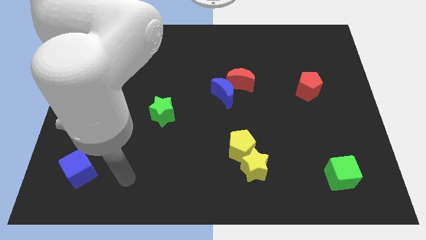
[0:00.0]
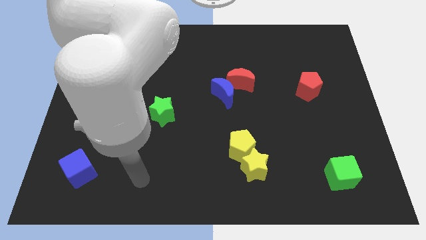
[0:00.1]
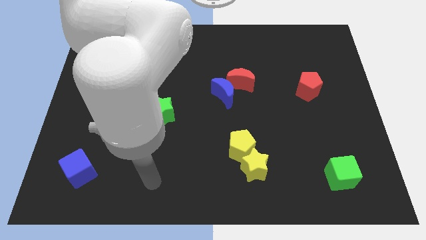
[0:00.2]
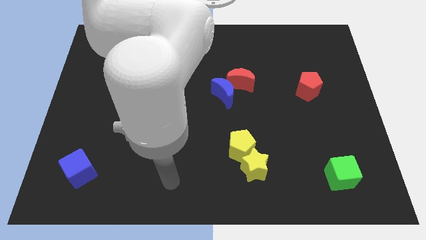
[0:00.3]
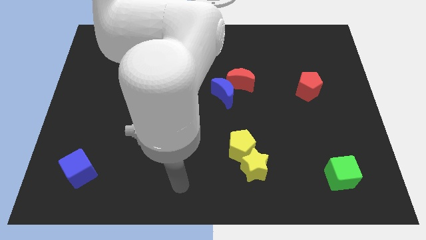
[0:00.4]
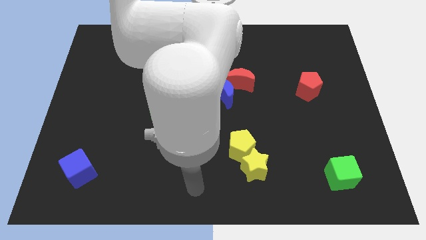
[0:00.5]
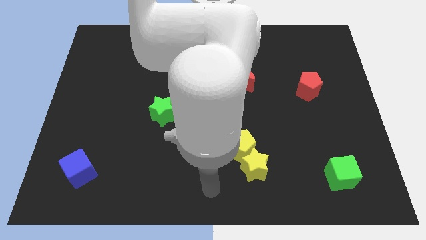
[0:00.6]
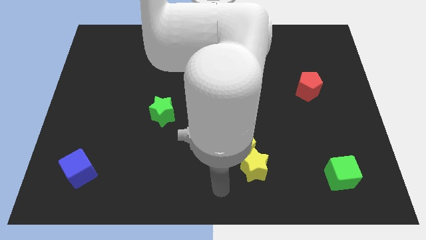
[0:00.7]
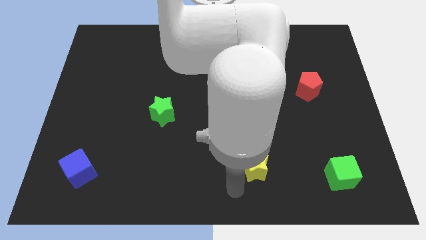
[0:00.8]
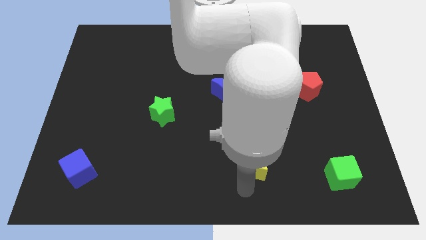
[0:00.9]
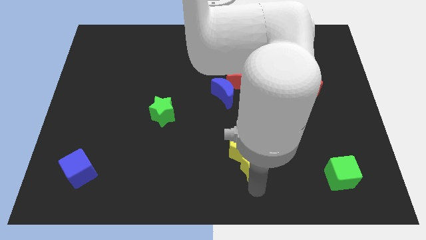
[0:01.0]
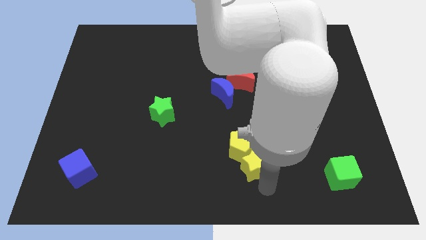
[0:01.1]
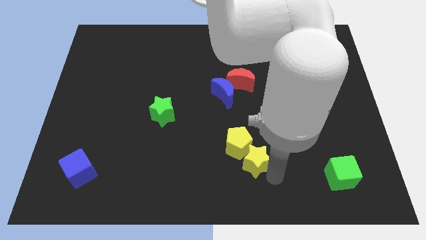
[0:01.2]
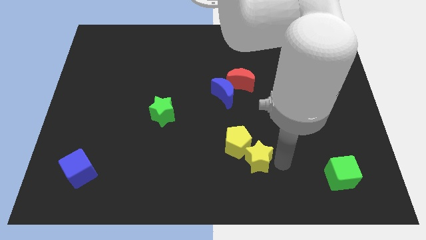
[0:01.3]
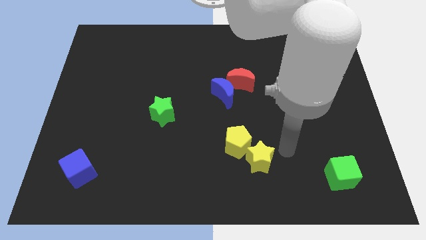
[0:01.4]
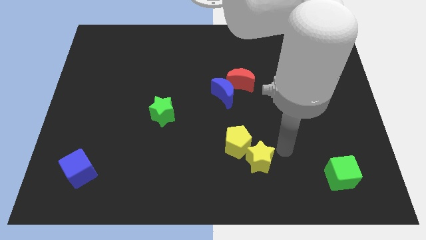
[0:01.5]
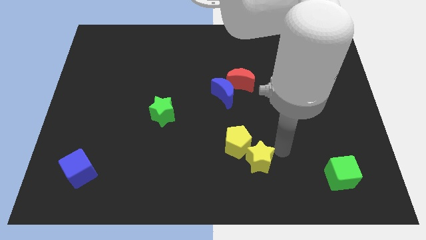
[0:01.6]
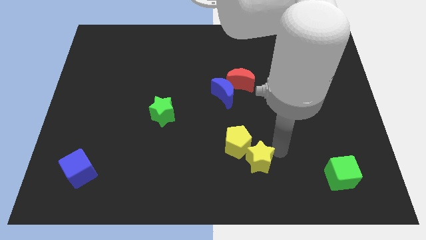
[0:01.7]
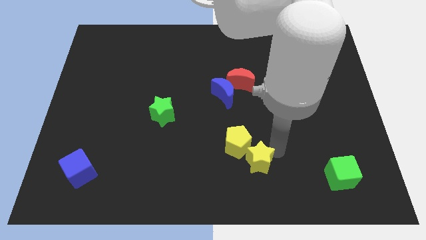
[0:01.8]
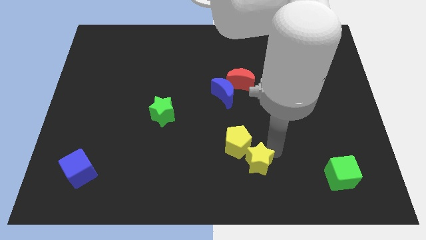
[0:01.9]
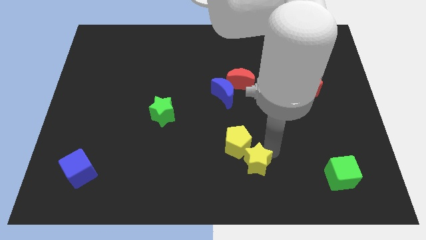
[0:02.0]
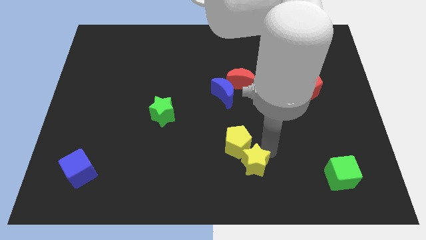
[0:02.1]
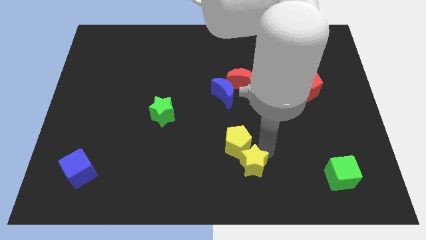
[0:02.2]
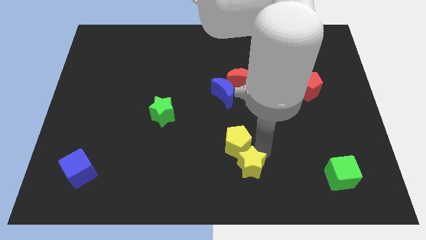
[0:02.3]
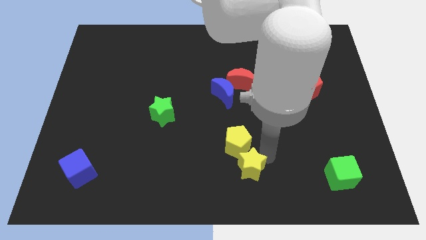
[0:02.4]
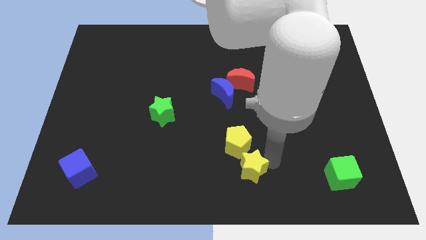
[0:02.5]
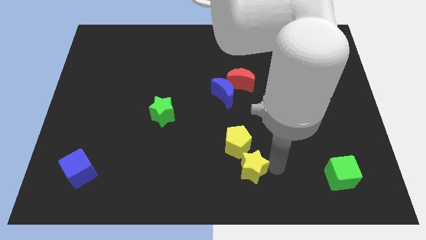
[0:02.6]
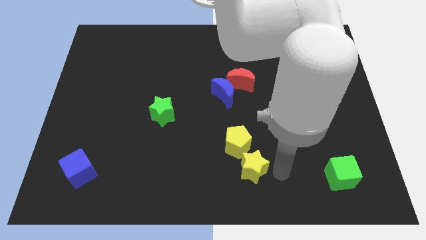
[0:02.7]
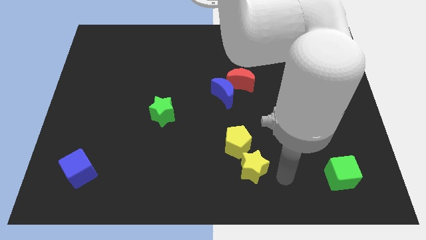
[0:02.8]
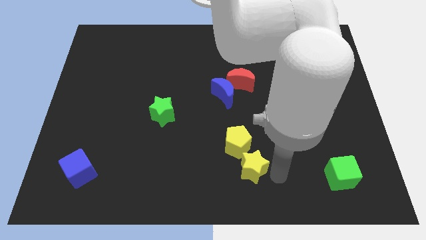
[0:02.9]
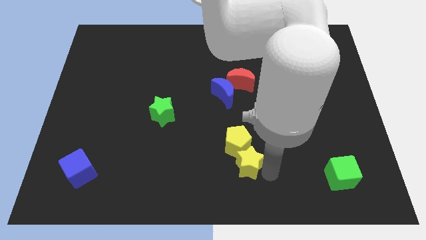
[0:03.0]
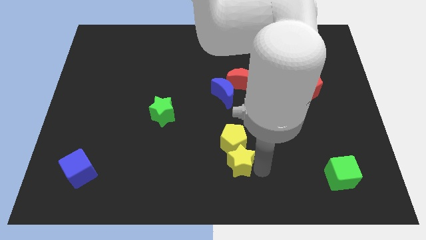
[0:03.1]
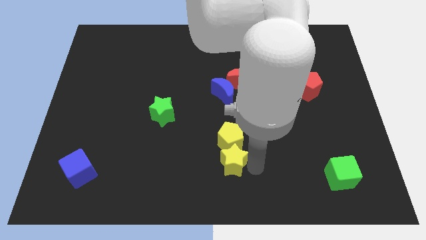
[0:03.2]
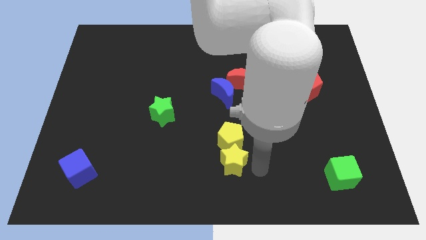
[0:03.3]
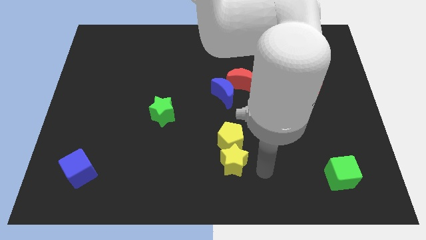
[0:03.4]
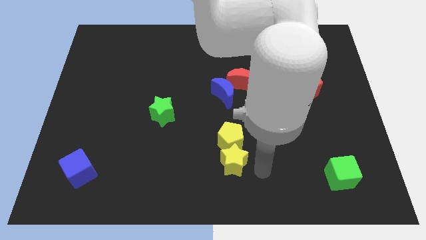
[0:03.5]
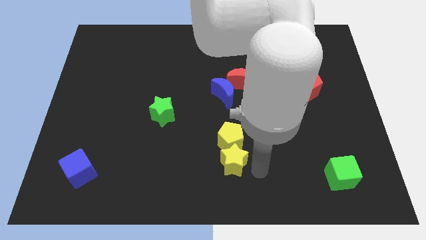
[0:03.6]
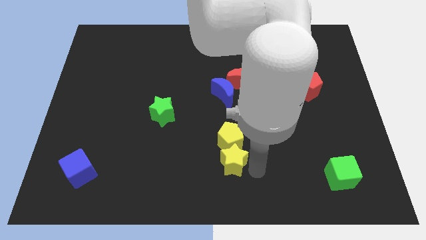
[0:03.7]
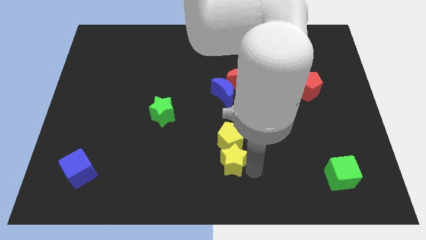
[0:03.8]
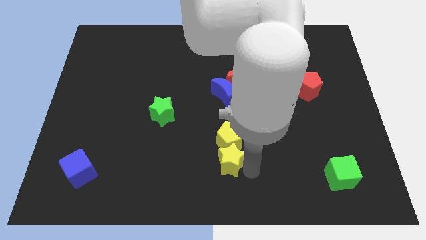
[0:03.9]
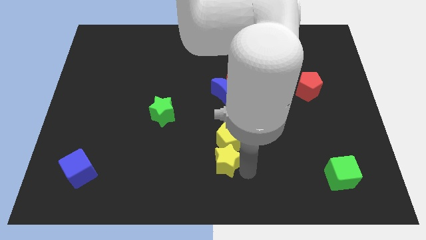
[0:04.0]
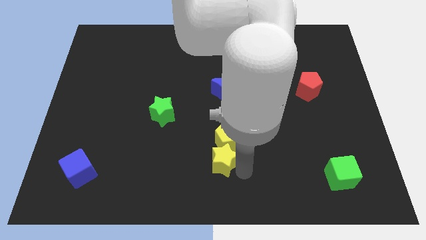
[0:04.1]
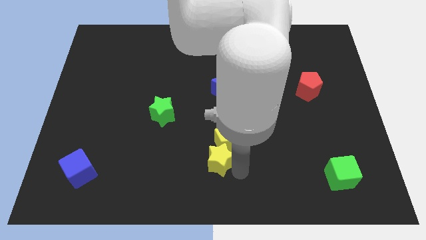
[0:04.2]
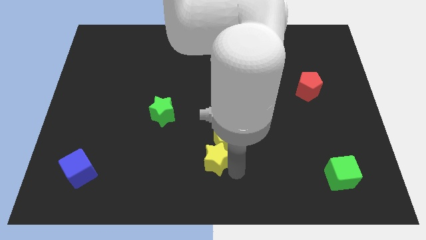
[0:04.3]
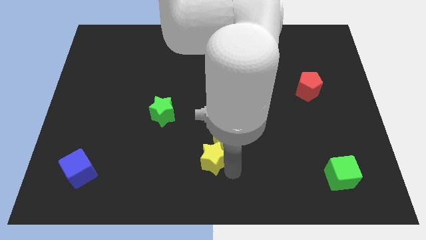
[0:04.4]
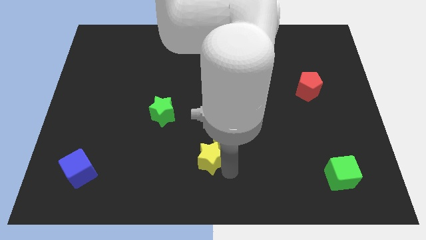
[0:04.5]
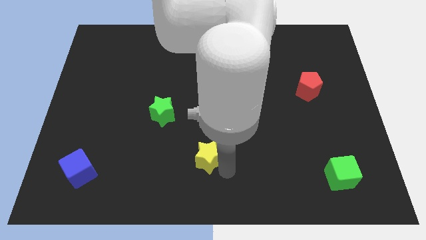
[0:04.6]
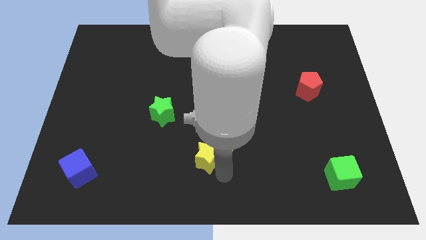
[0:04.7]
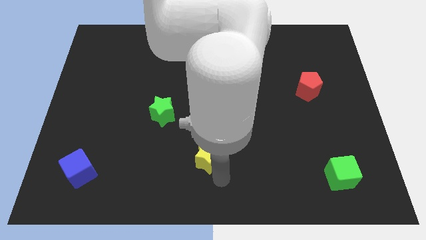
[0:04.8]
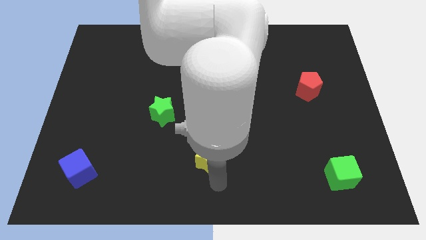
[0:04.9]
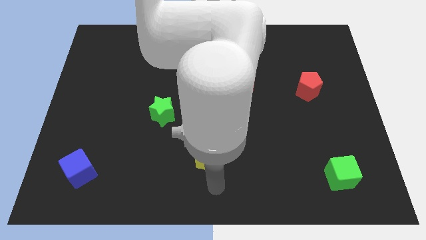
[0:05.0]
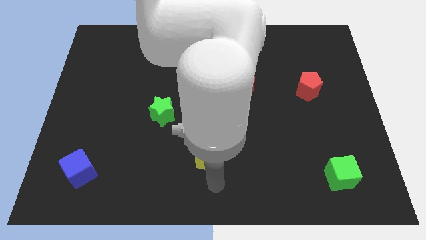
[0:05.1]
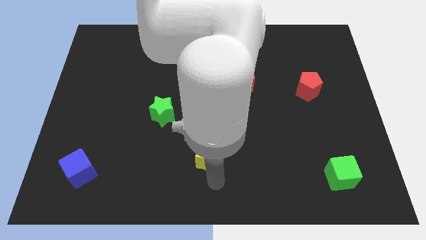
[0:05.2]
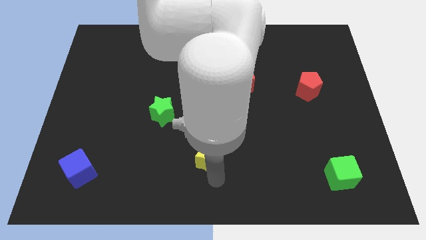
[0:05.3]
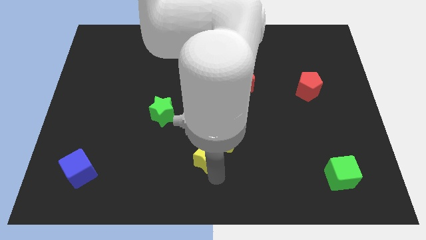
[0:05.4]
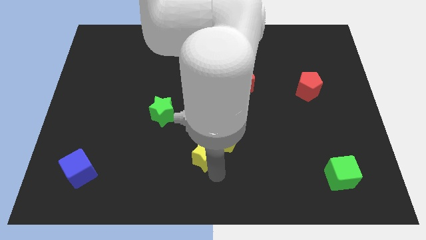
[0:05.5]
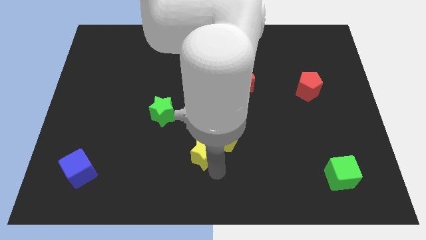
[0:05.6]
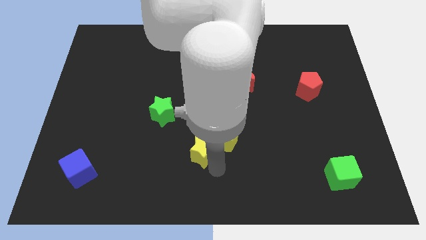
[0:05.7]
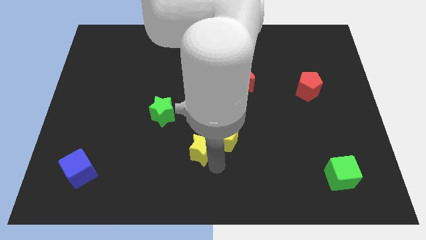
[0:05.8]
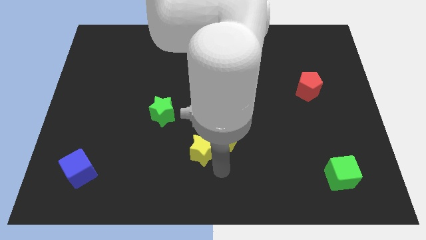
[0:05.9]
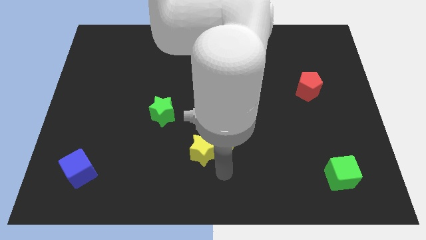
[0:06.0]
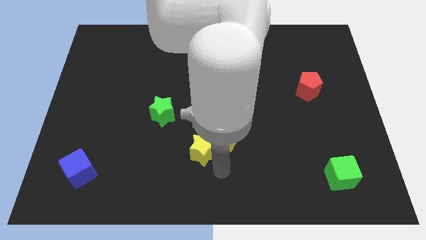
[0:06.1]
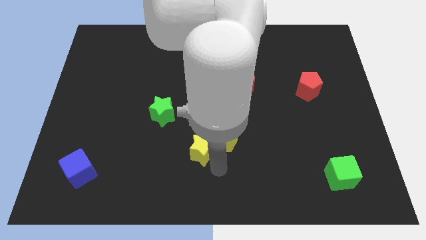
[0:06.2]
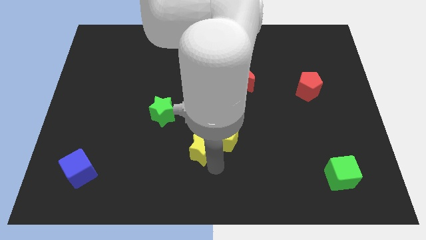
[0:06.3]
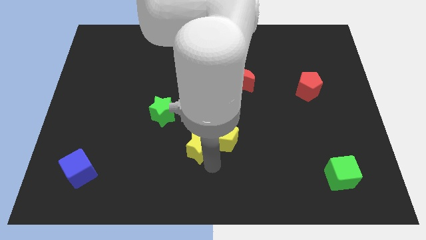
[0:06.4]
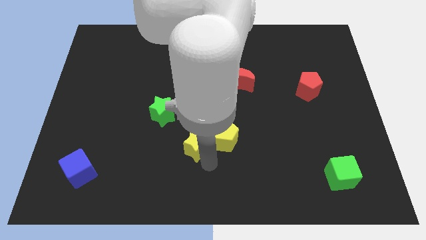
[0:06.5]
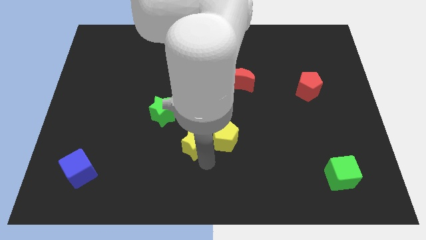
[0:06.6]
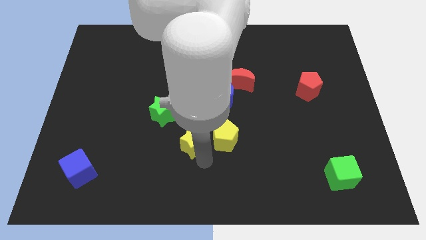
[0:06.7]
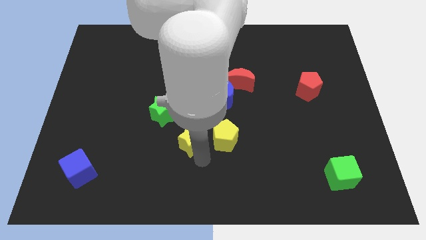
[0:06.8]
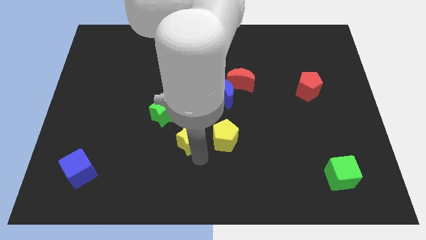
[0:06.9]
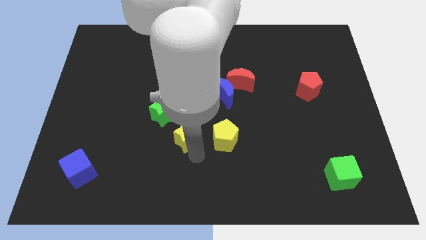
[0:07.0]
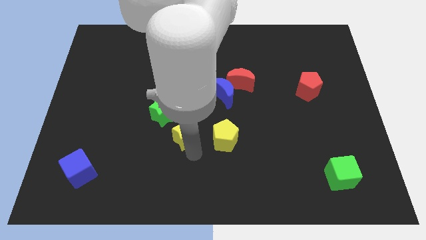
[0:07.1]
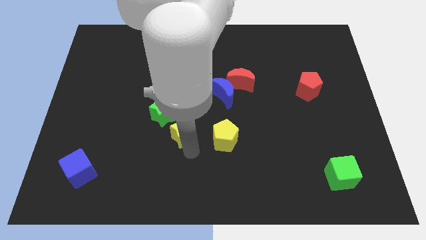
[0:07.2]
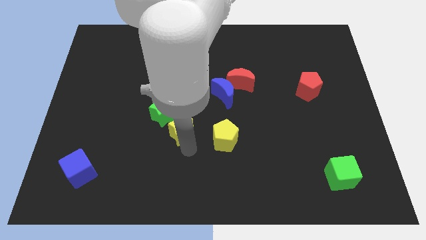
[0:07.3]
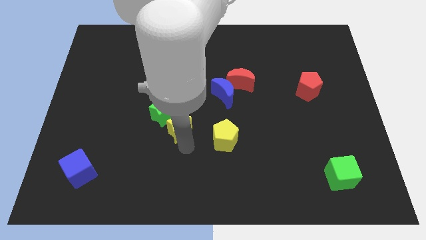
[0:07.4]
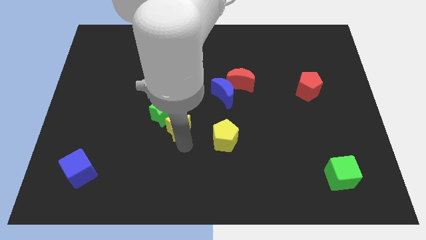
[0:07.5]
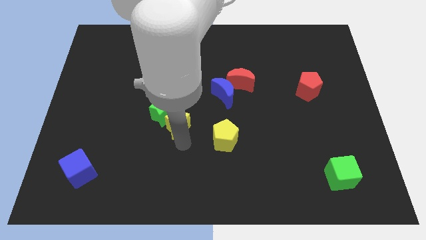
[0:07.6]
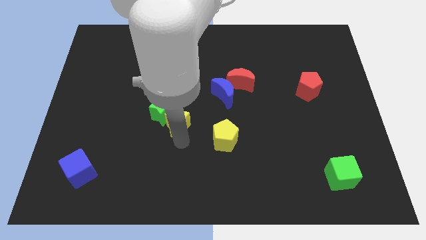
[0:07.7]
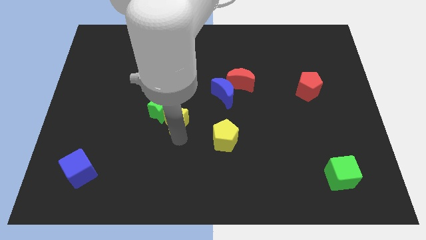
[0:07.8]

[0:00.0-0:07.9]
move the yellow star up and to the left

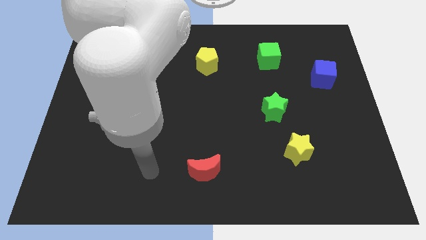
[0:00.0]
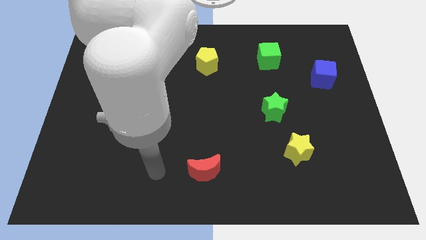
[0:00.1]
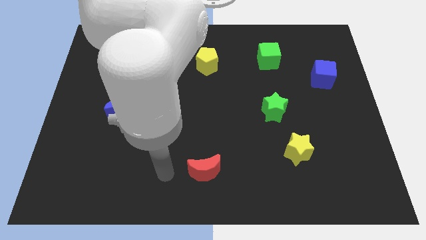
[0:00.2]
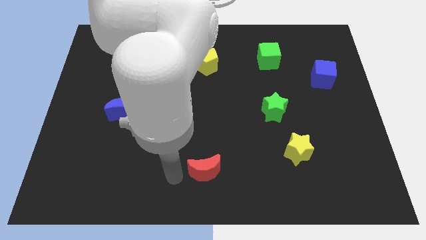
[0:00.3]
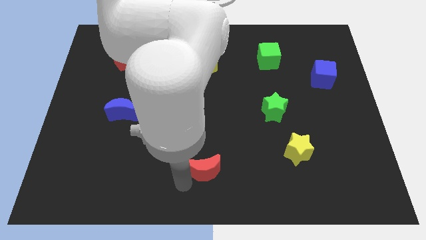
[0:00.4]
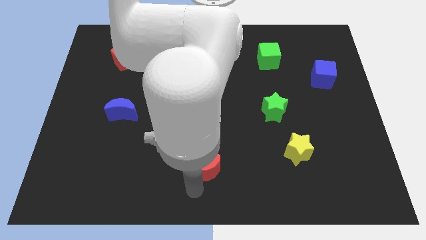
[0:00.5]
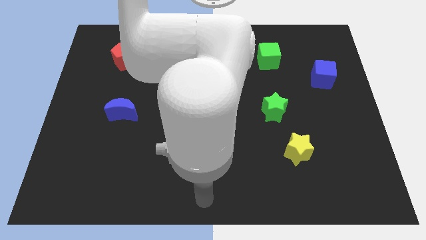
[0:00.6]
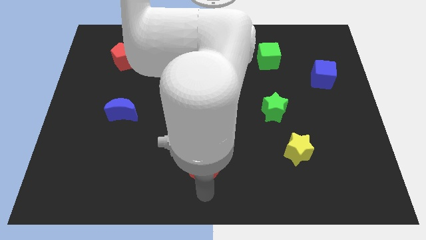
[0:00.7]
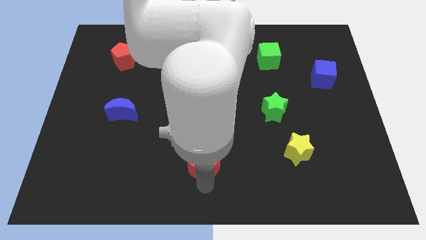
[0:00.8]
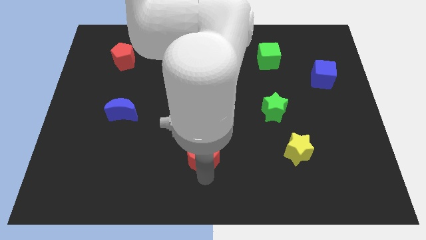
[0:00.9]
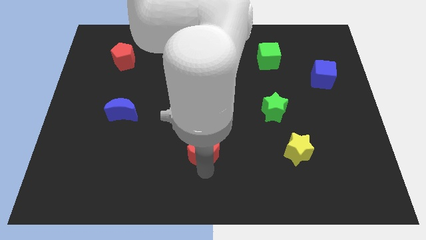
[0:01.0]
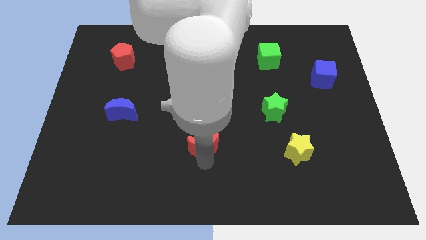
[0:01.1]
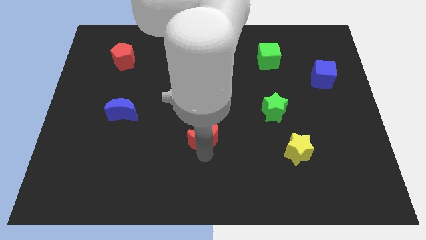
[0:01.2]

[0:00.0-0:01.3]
push the red moon a bit up
